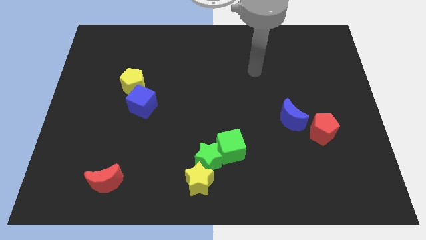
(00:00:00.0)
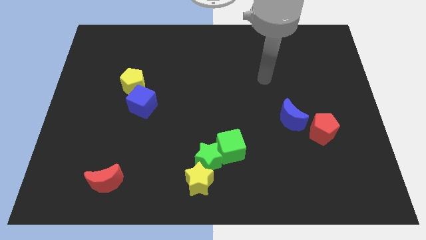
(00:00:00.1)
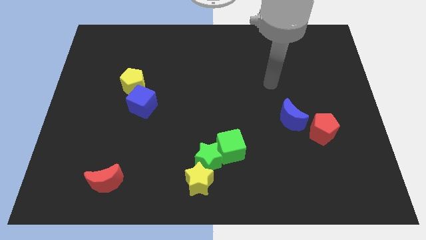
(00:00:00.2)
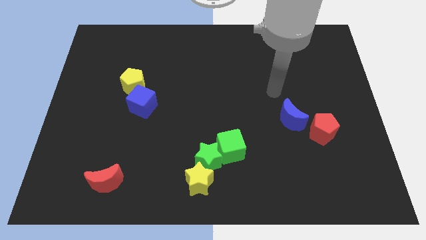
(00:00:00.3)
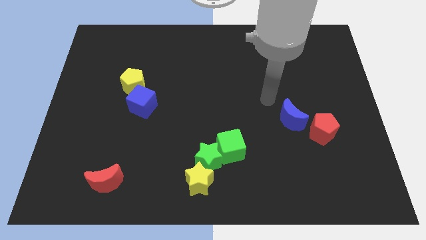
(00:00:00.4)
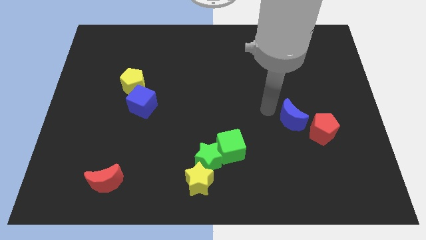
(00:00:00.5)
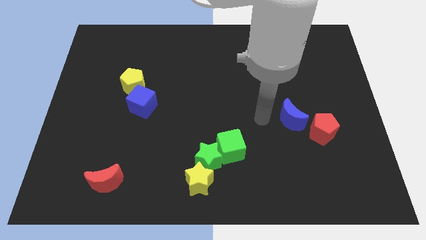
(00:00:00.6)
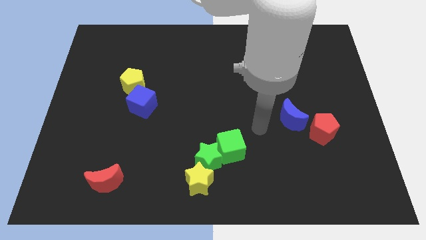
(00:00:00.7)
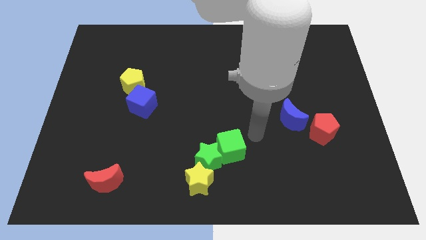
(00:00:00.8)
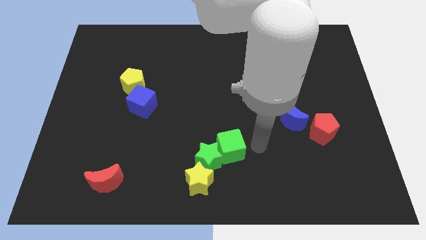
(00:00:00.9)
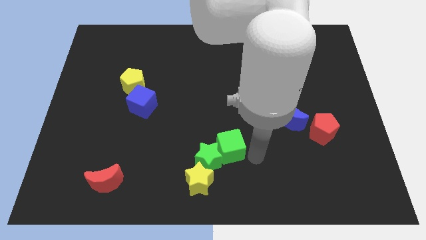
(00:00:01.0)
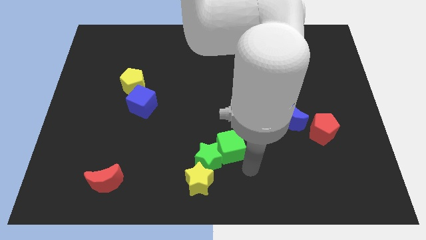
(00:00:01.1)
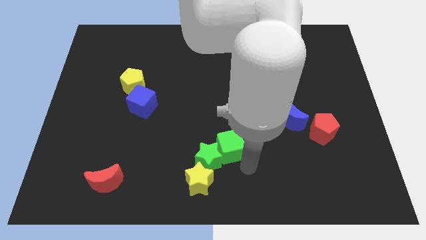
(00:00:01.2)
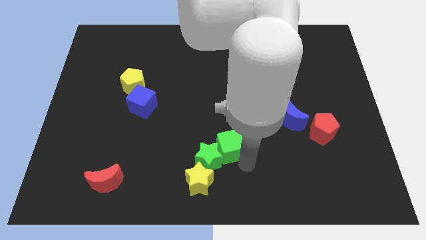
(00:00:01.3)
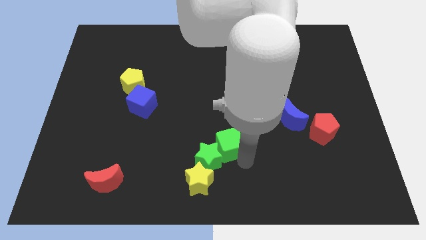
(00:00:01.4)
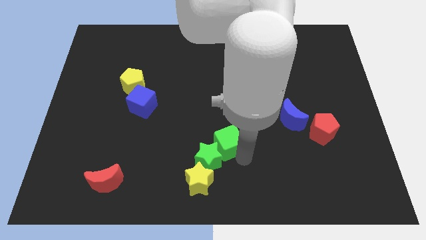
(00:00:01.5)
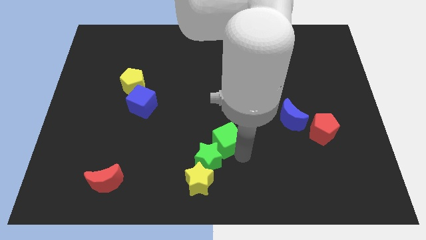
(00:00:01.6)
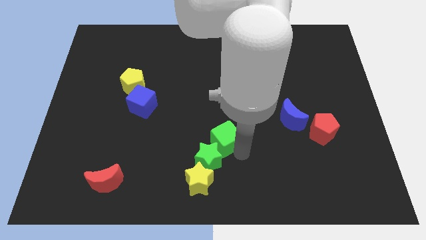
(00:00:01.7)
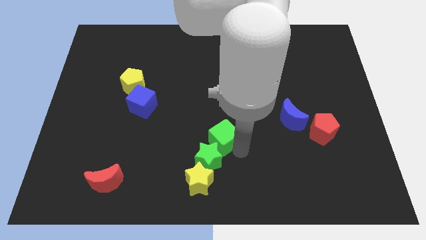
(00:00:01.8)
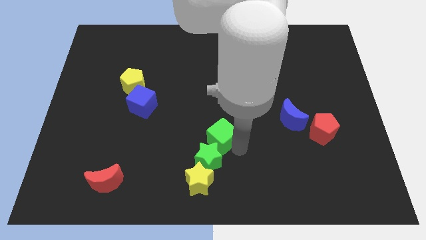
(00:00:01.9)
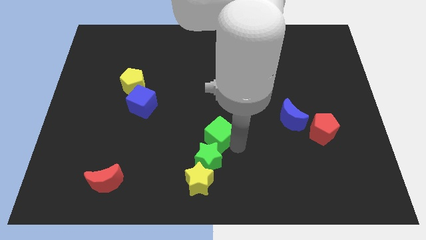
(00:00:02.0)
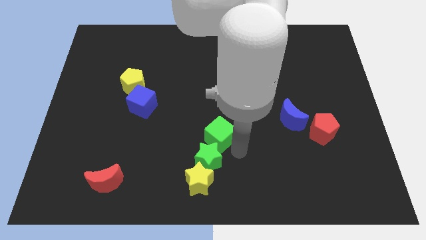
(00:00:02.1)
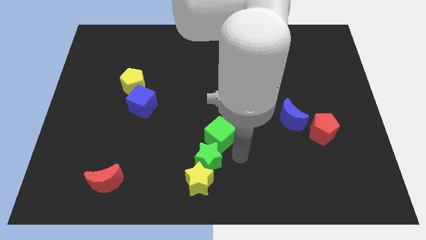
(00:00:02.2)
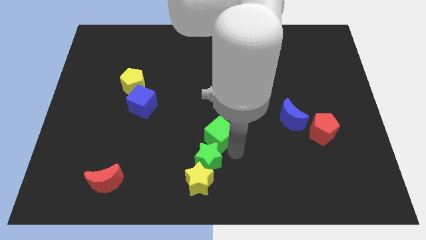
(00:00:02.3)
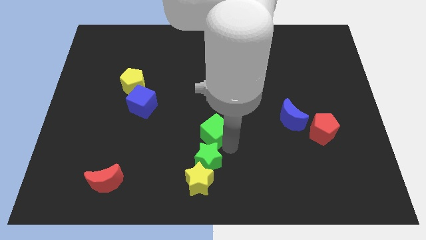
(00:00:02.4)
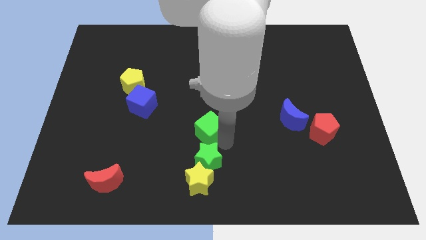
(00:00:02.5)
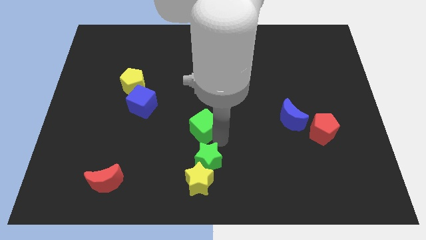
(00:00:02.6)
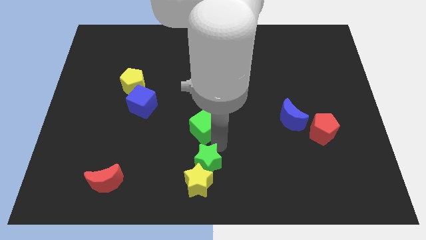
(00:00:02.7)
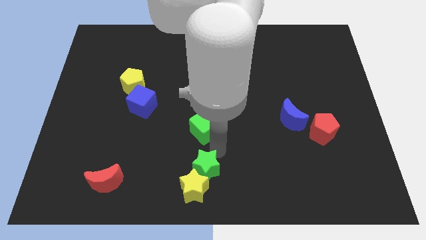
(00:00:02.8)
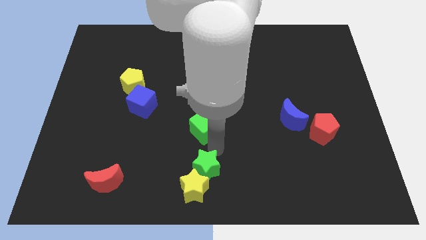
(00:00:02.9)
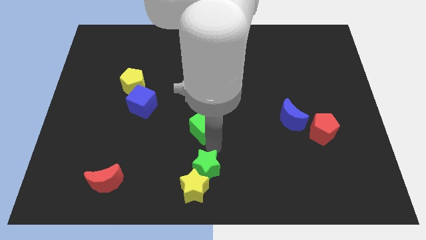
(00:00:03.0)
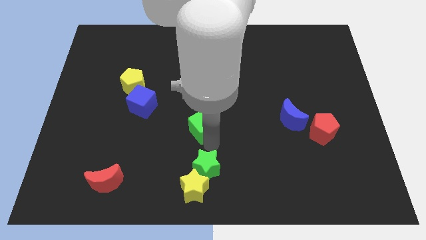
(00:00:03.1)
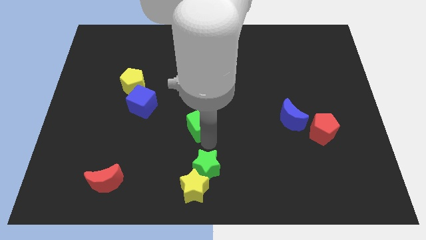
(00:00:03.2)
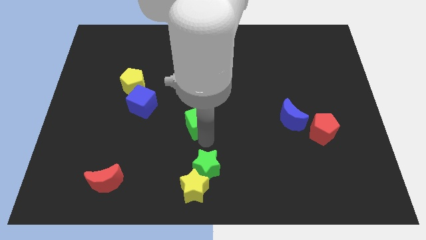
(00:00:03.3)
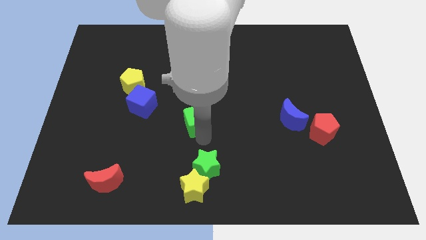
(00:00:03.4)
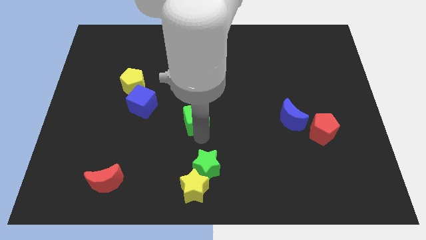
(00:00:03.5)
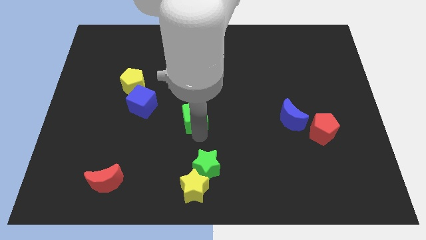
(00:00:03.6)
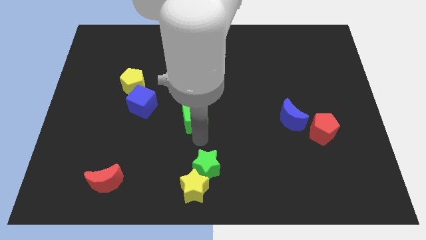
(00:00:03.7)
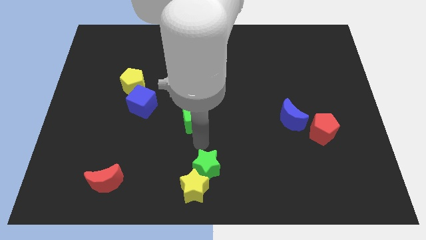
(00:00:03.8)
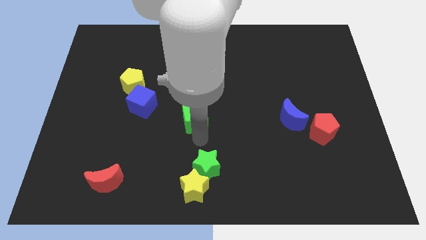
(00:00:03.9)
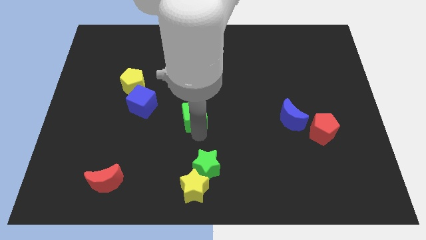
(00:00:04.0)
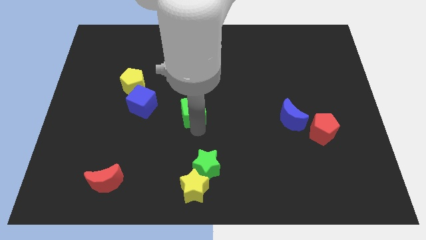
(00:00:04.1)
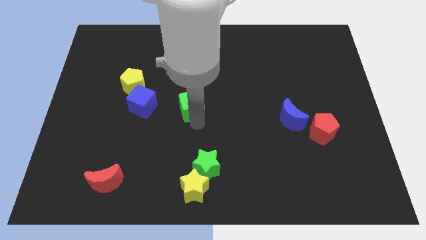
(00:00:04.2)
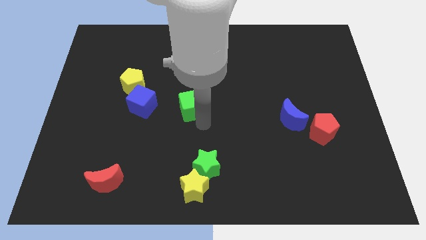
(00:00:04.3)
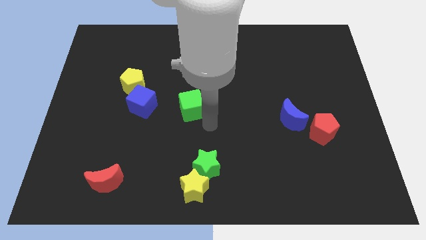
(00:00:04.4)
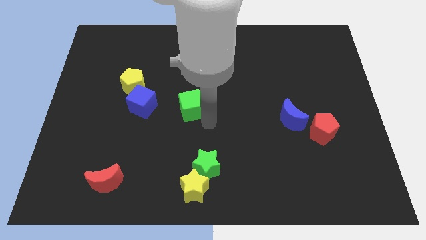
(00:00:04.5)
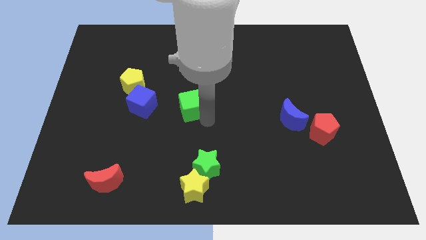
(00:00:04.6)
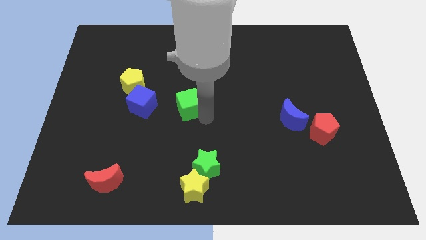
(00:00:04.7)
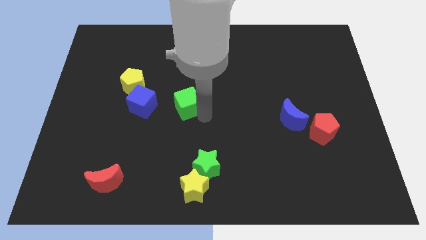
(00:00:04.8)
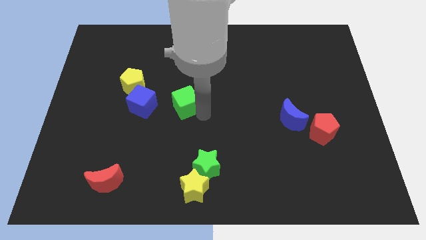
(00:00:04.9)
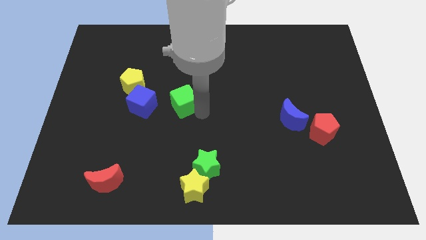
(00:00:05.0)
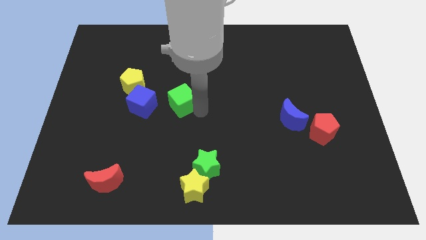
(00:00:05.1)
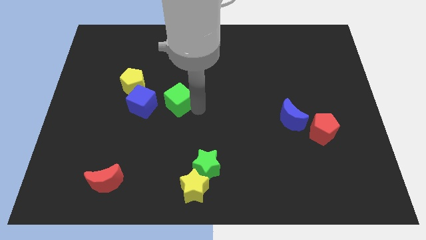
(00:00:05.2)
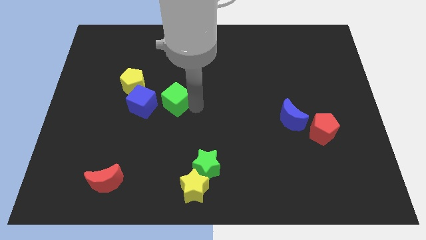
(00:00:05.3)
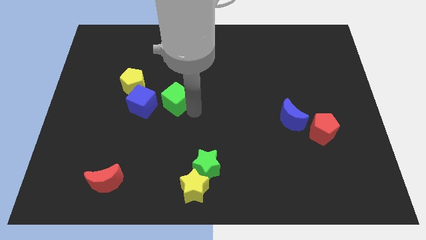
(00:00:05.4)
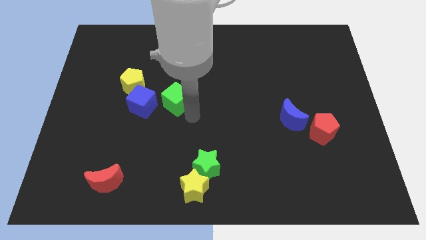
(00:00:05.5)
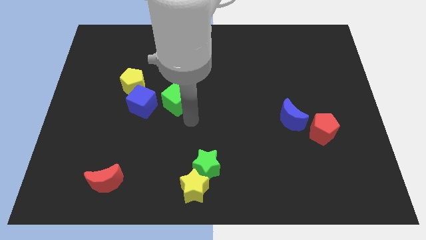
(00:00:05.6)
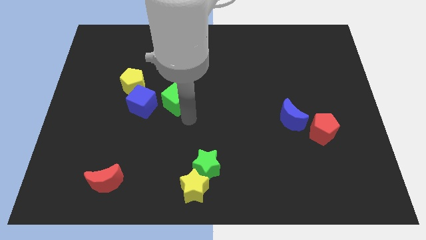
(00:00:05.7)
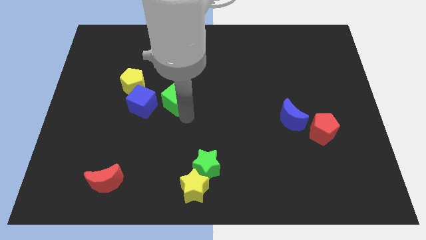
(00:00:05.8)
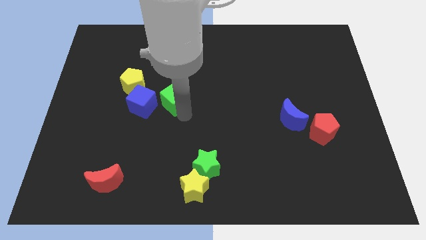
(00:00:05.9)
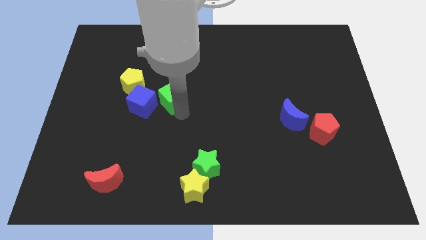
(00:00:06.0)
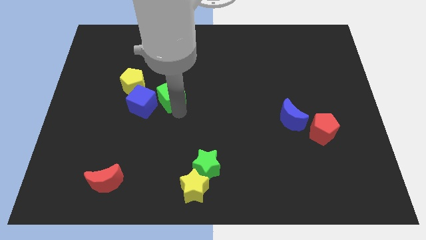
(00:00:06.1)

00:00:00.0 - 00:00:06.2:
slide the green cube diagonally upwards and to the left

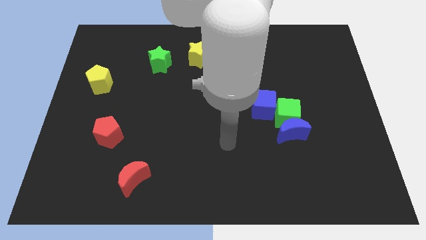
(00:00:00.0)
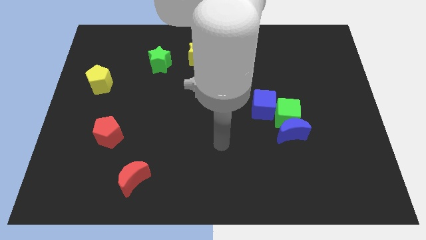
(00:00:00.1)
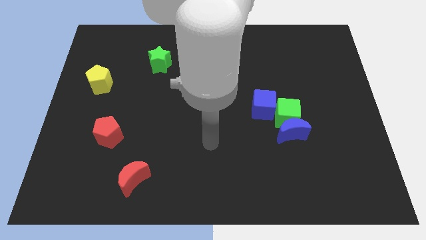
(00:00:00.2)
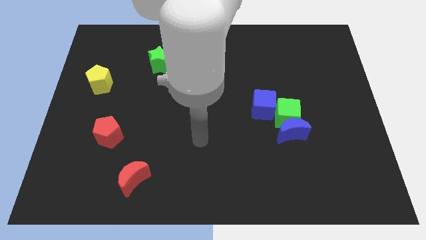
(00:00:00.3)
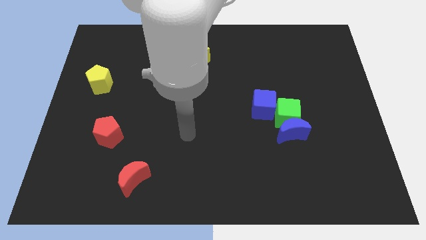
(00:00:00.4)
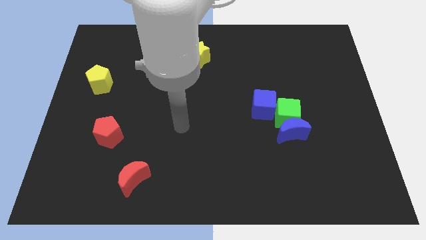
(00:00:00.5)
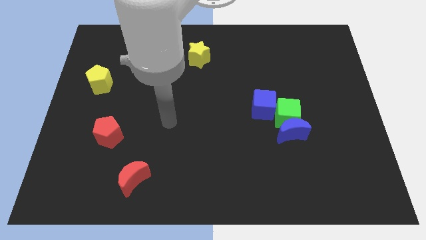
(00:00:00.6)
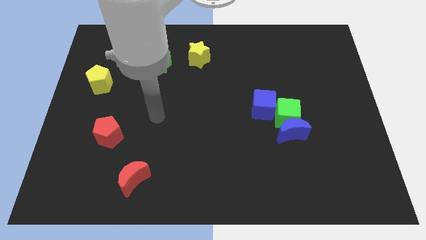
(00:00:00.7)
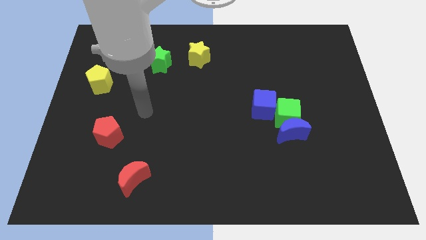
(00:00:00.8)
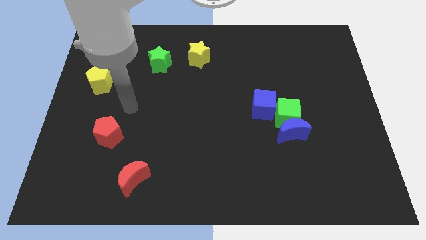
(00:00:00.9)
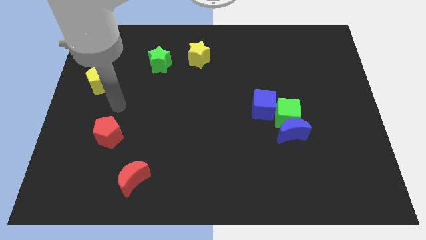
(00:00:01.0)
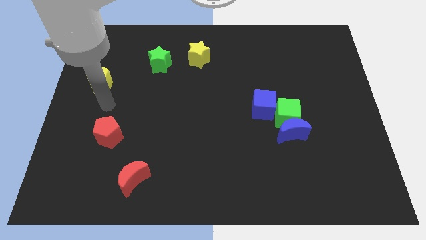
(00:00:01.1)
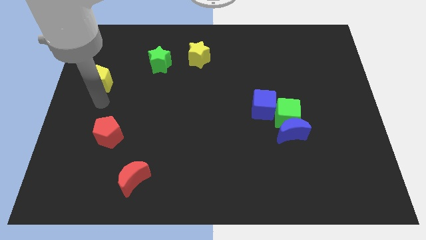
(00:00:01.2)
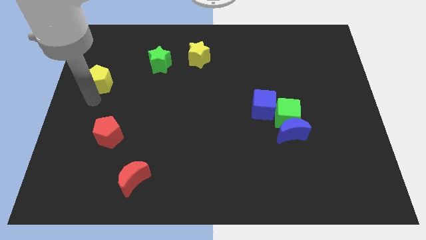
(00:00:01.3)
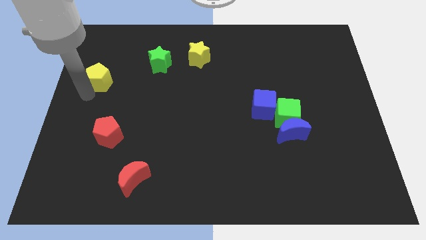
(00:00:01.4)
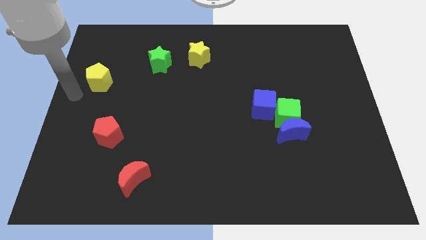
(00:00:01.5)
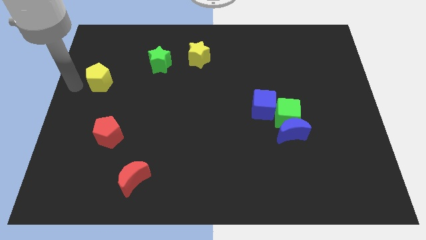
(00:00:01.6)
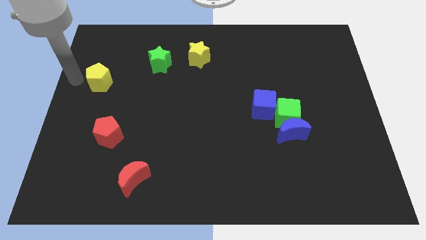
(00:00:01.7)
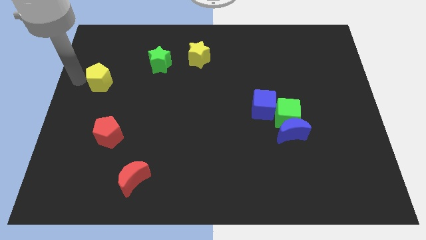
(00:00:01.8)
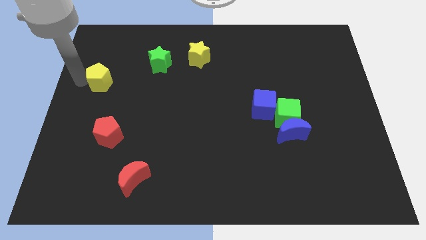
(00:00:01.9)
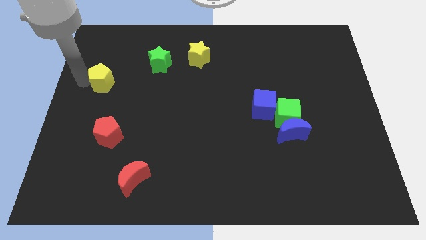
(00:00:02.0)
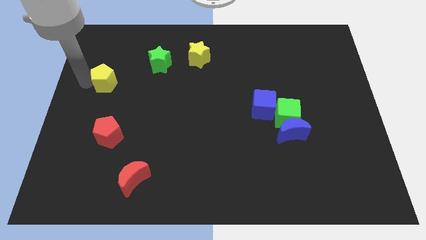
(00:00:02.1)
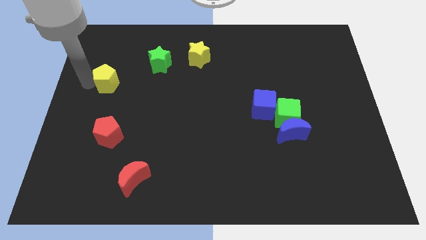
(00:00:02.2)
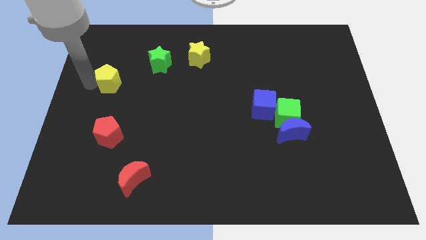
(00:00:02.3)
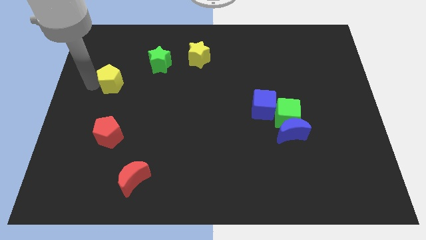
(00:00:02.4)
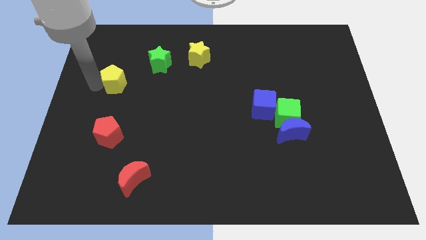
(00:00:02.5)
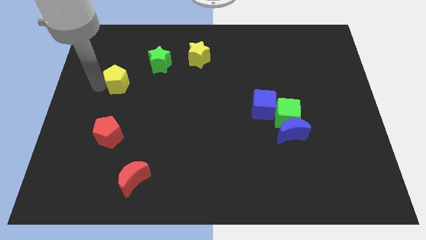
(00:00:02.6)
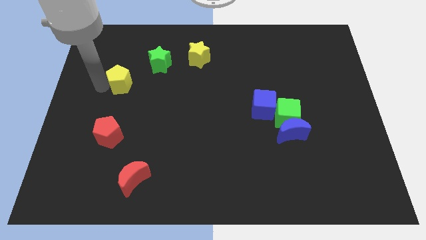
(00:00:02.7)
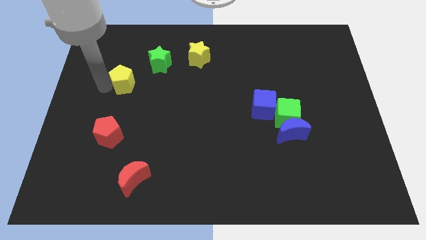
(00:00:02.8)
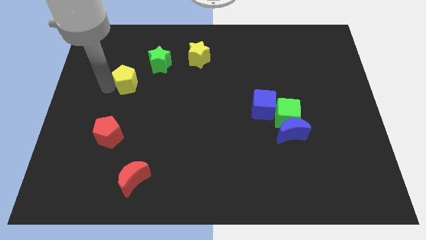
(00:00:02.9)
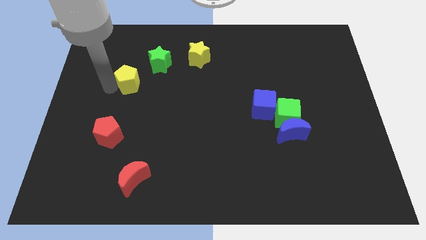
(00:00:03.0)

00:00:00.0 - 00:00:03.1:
slightly move the yellow pentagon to the right
